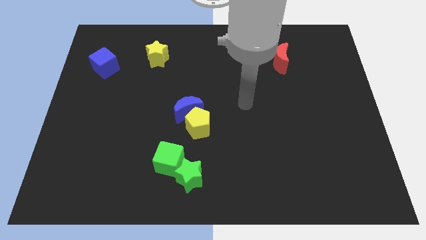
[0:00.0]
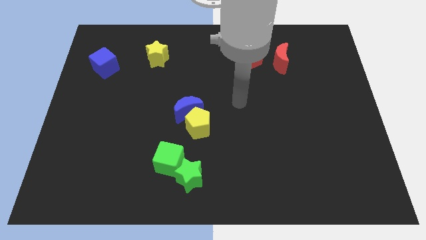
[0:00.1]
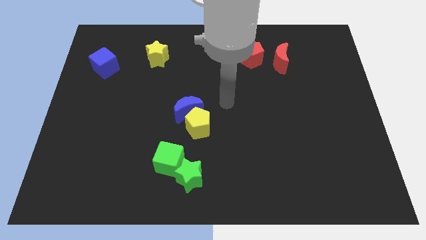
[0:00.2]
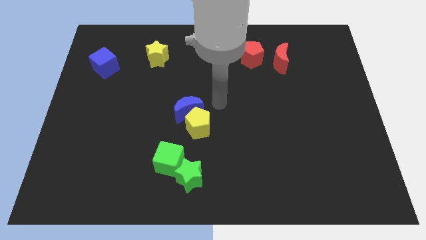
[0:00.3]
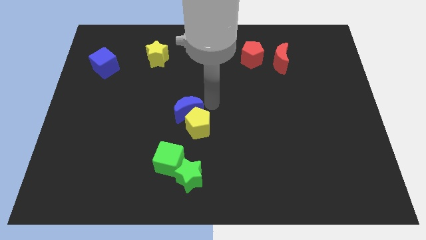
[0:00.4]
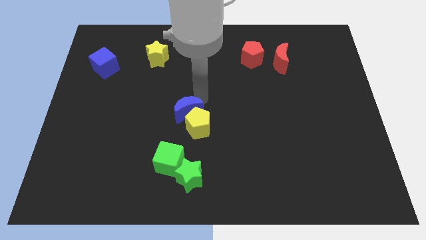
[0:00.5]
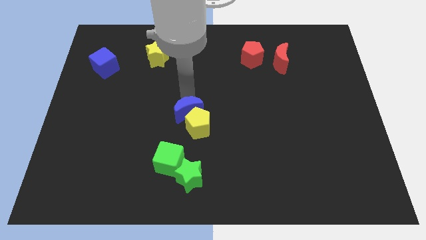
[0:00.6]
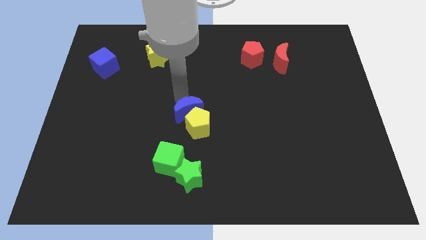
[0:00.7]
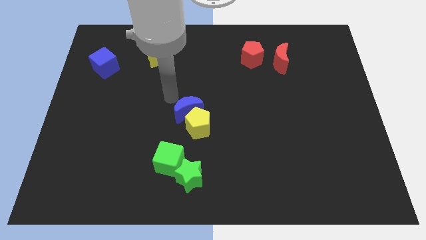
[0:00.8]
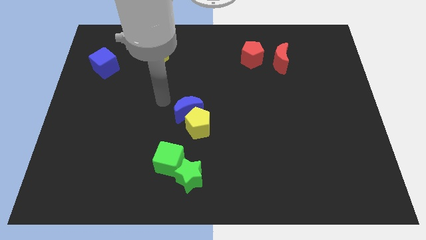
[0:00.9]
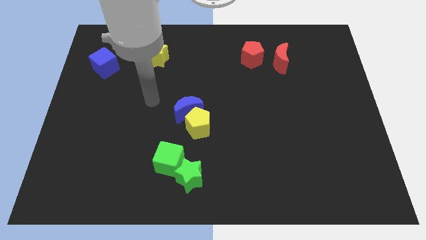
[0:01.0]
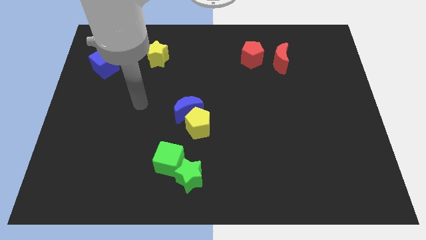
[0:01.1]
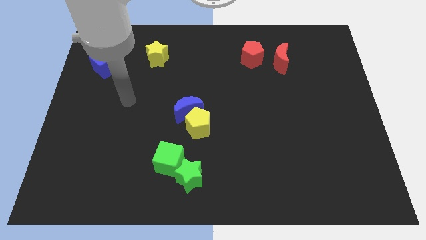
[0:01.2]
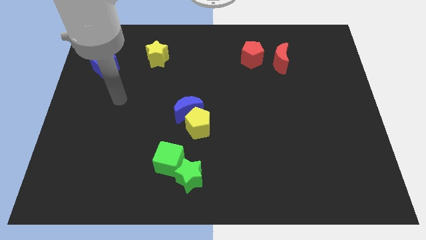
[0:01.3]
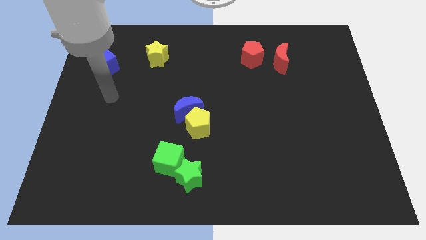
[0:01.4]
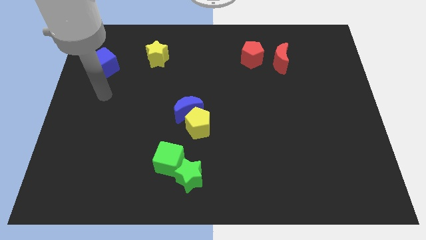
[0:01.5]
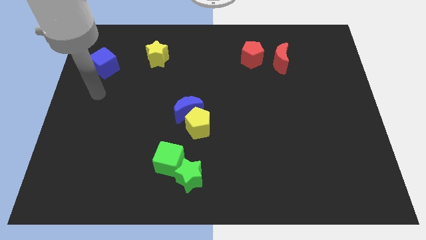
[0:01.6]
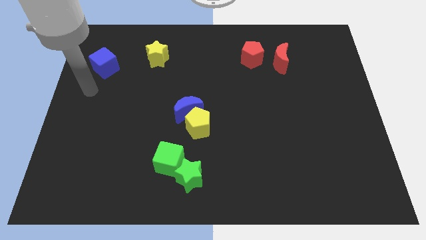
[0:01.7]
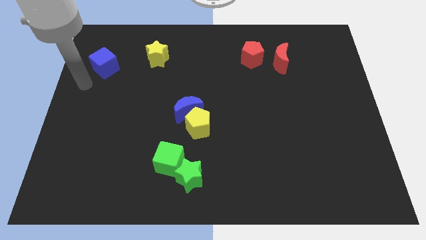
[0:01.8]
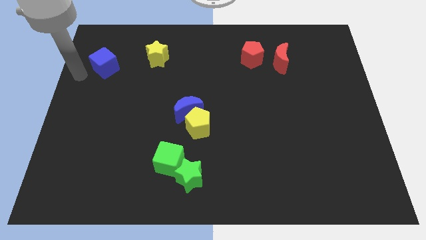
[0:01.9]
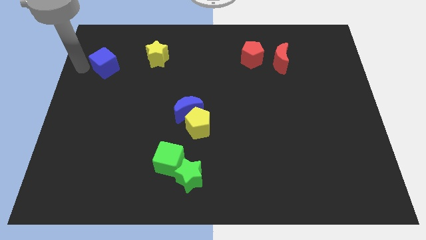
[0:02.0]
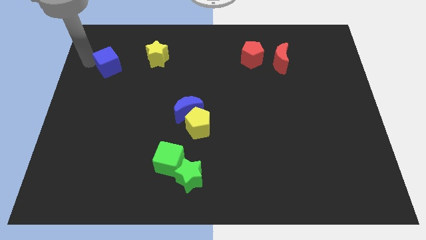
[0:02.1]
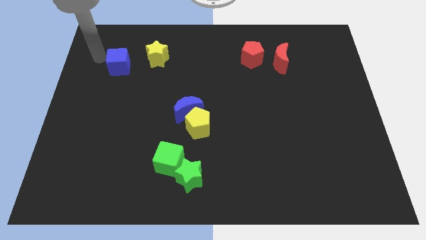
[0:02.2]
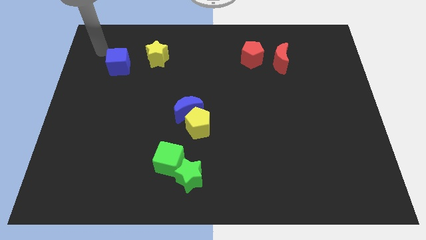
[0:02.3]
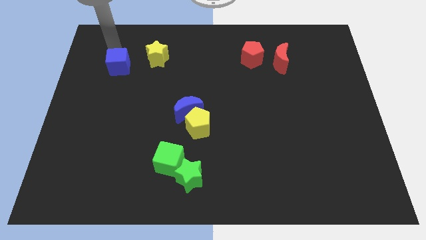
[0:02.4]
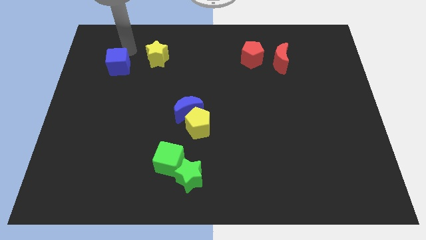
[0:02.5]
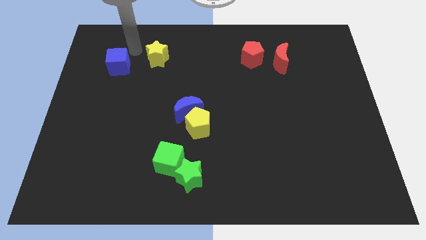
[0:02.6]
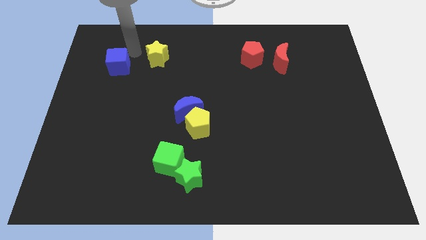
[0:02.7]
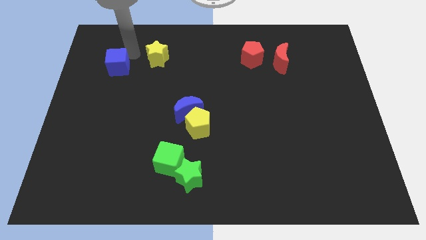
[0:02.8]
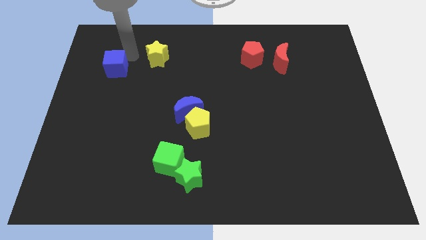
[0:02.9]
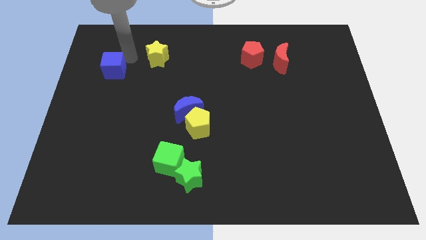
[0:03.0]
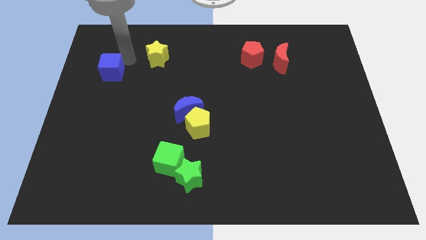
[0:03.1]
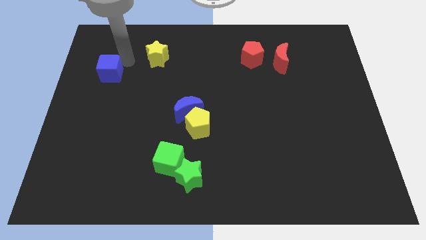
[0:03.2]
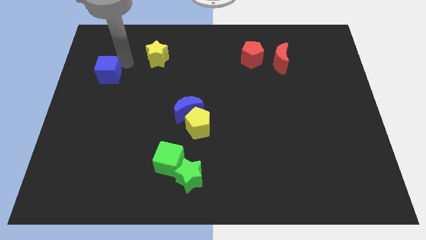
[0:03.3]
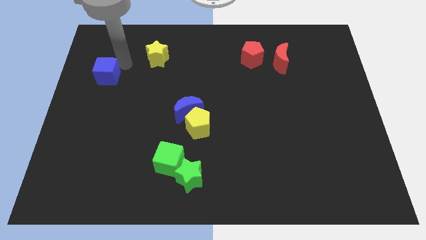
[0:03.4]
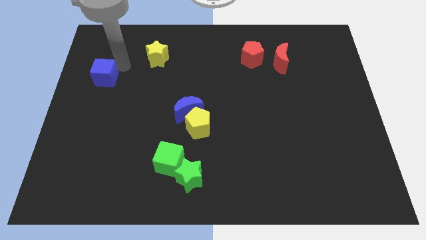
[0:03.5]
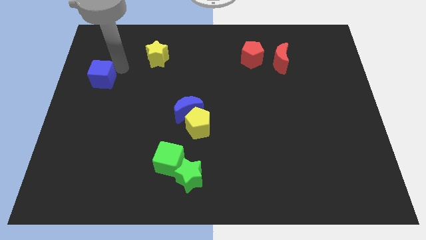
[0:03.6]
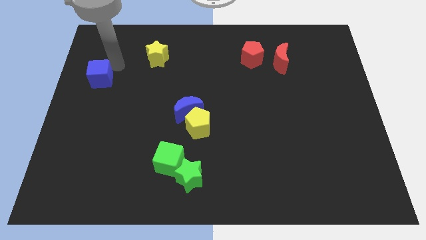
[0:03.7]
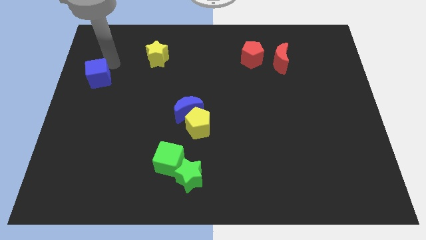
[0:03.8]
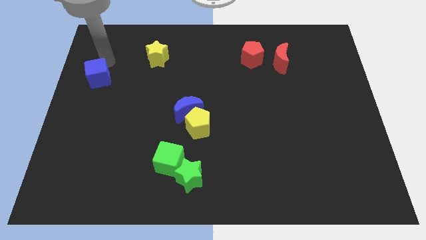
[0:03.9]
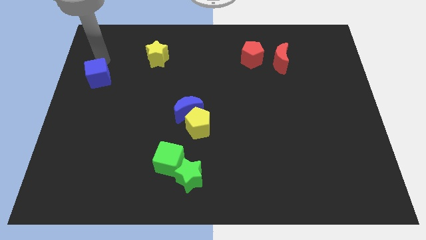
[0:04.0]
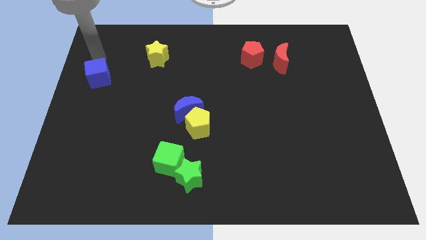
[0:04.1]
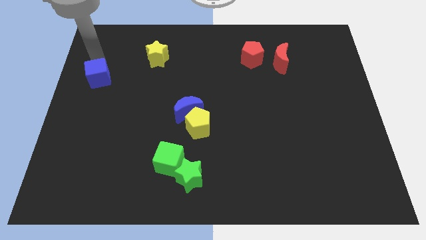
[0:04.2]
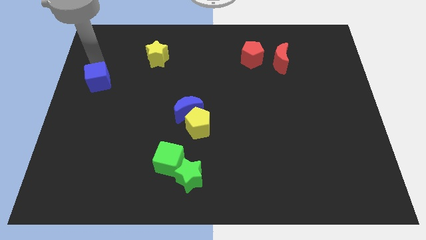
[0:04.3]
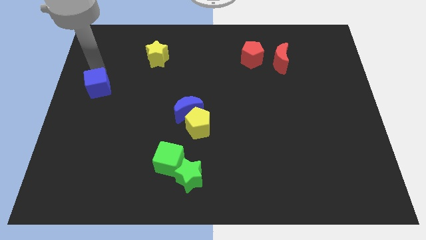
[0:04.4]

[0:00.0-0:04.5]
slide the blue cube a bit downwards

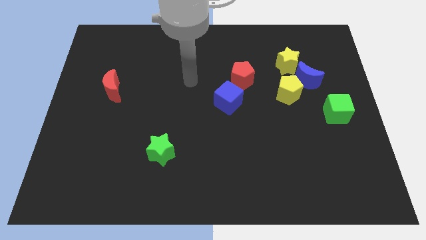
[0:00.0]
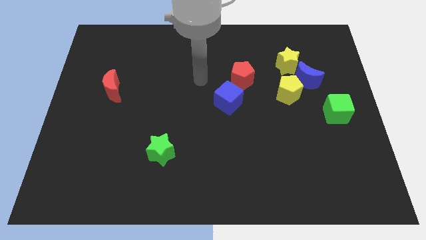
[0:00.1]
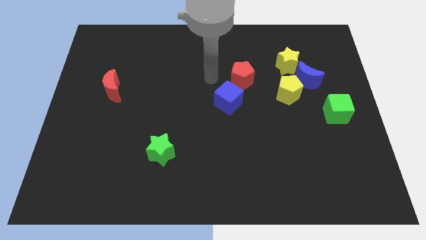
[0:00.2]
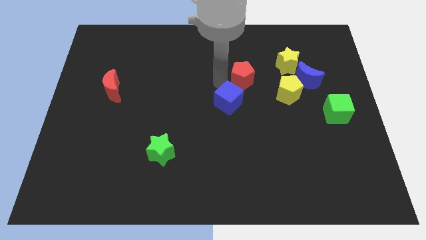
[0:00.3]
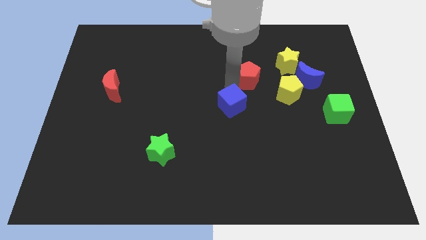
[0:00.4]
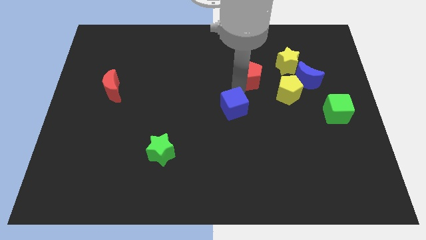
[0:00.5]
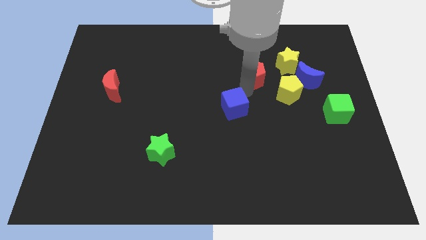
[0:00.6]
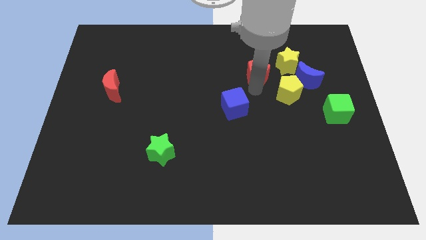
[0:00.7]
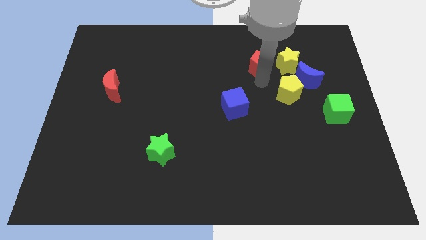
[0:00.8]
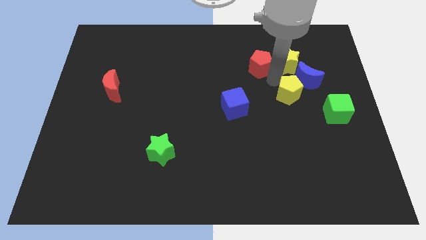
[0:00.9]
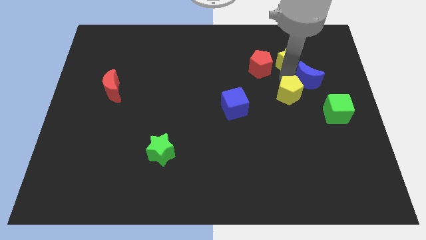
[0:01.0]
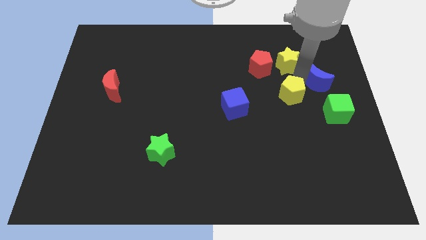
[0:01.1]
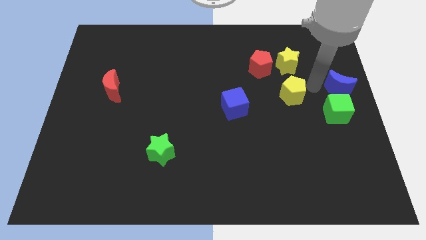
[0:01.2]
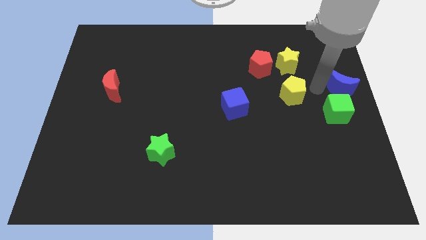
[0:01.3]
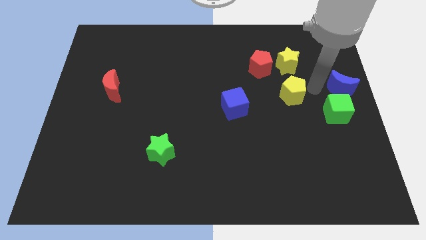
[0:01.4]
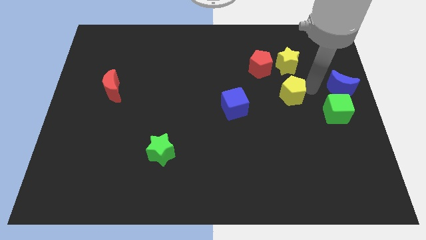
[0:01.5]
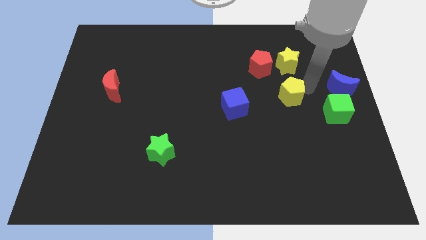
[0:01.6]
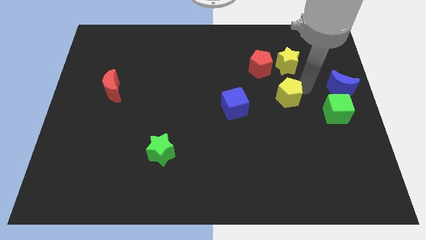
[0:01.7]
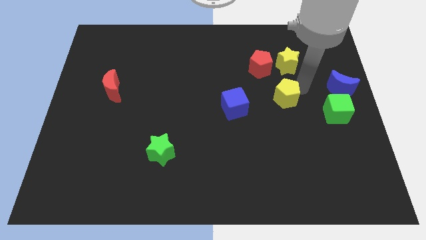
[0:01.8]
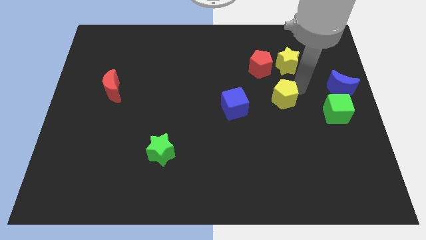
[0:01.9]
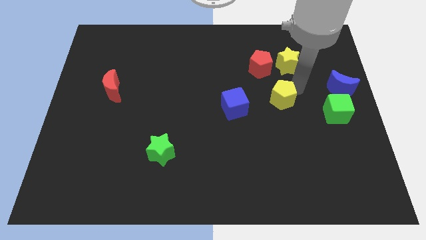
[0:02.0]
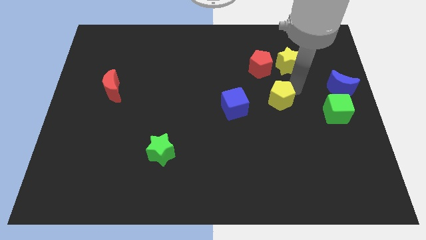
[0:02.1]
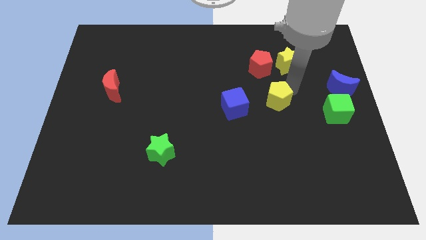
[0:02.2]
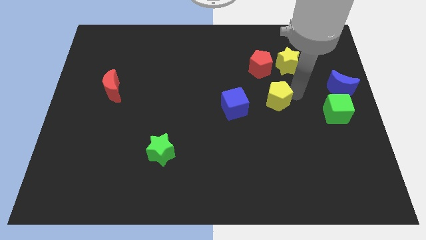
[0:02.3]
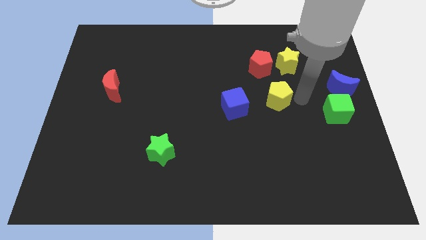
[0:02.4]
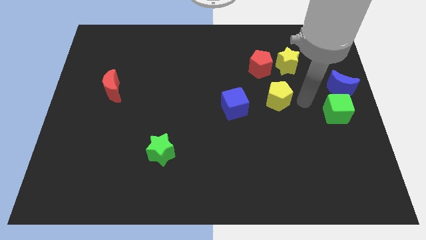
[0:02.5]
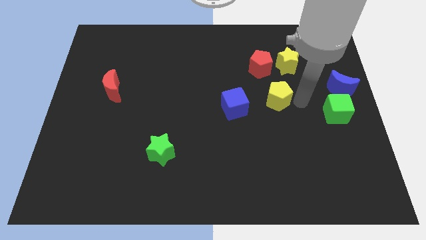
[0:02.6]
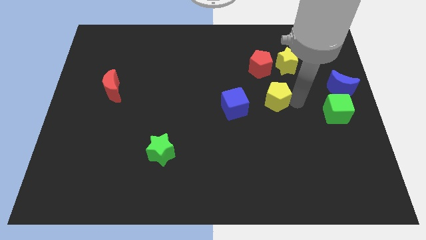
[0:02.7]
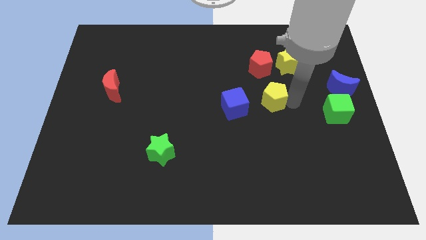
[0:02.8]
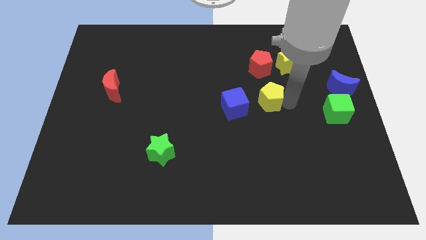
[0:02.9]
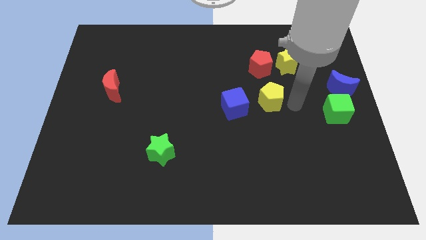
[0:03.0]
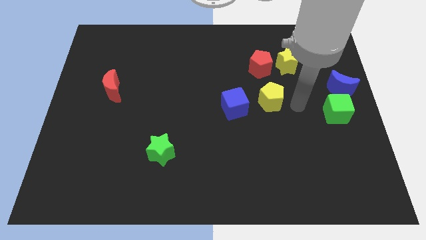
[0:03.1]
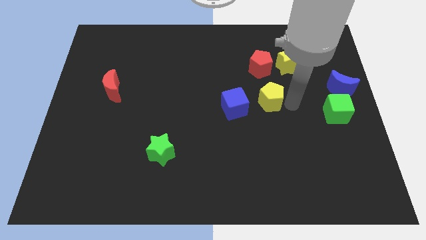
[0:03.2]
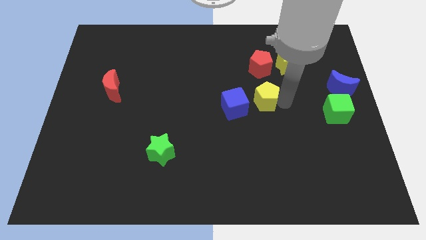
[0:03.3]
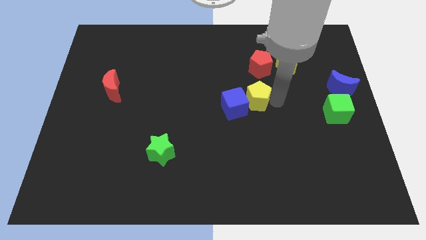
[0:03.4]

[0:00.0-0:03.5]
move the yellow pentagon left a little bit
